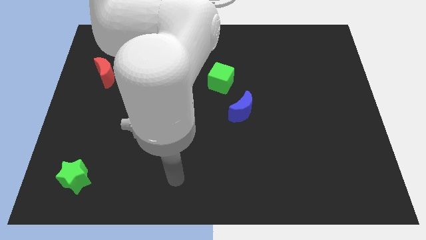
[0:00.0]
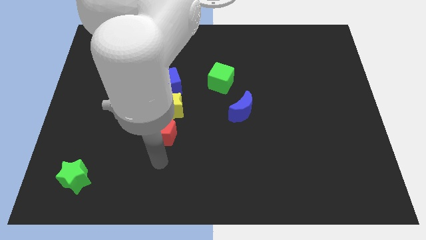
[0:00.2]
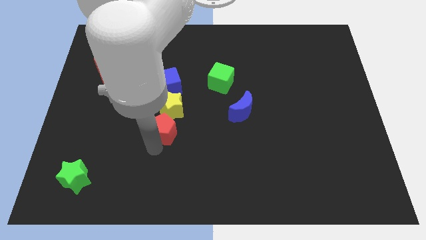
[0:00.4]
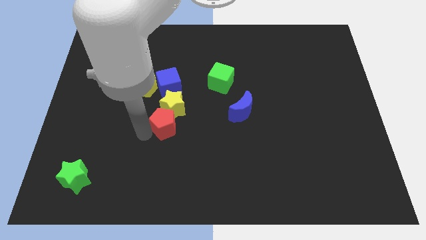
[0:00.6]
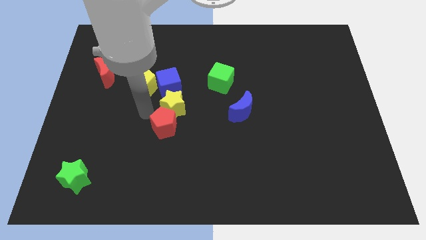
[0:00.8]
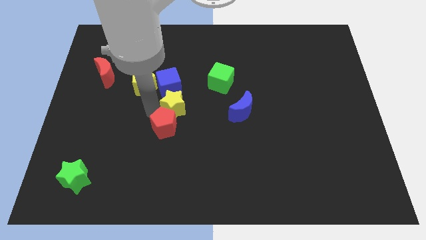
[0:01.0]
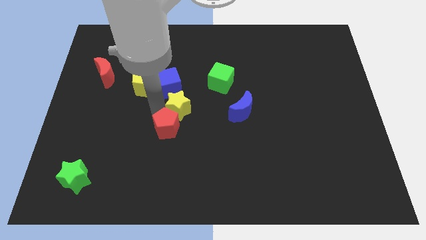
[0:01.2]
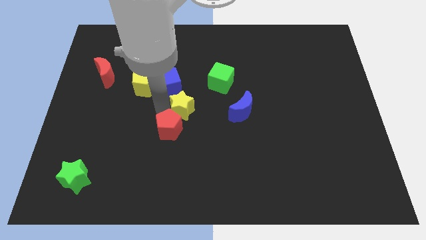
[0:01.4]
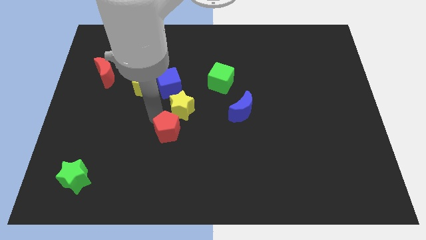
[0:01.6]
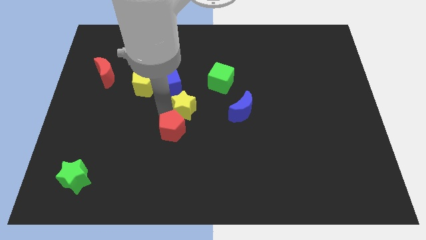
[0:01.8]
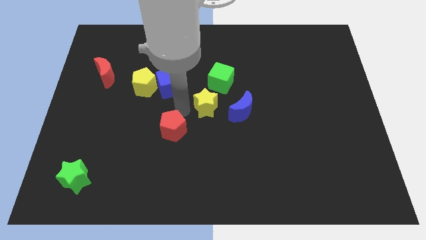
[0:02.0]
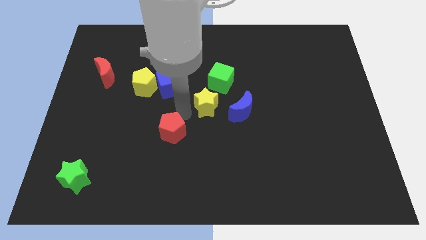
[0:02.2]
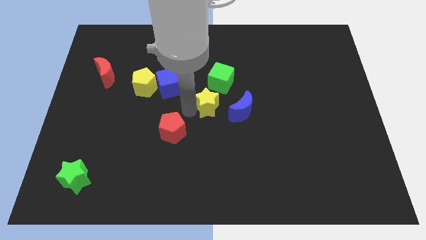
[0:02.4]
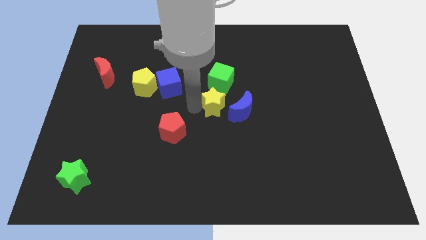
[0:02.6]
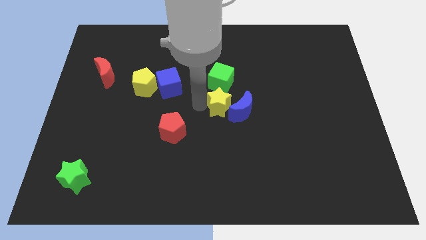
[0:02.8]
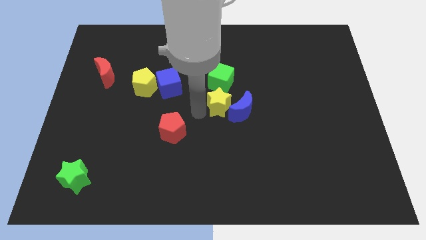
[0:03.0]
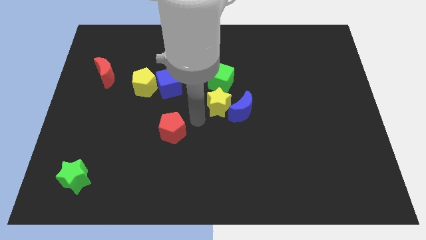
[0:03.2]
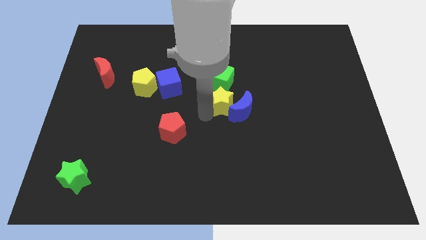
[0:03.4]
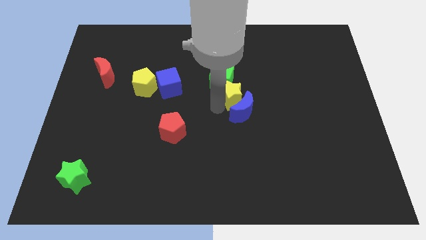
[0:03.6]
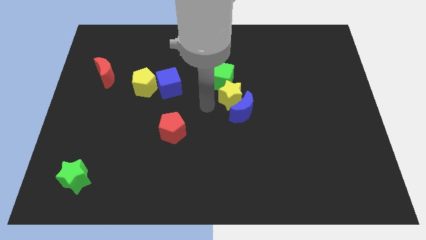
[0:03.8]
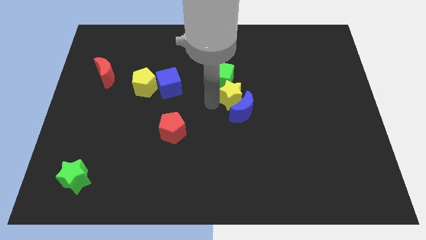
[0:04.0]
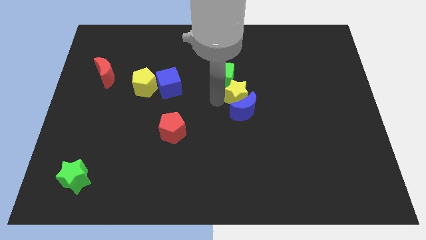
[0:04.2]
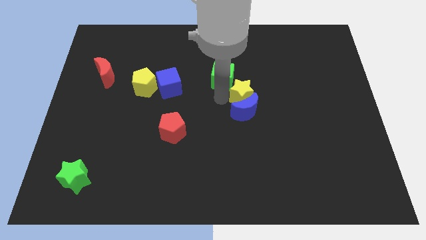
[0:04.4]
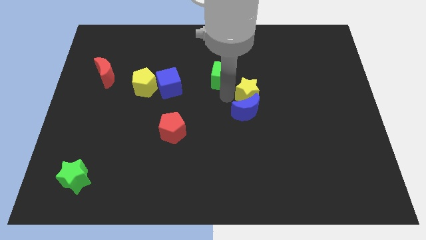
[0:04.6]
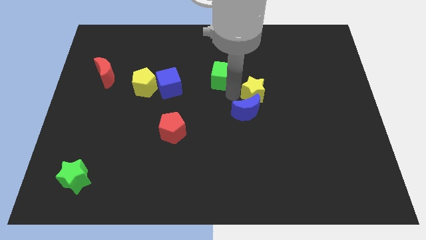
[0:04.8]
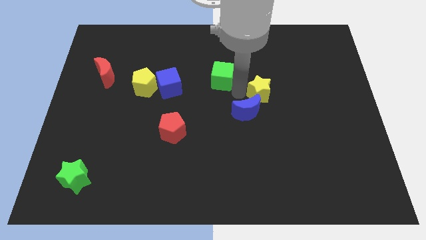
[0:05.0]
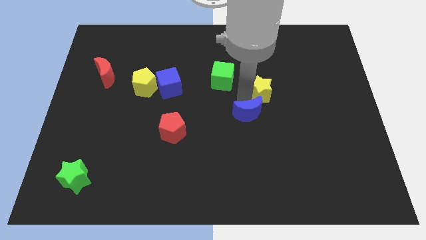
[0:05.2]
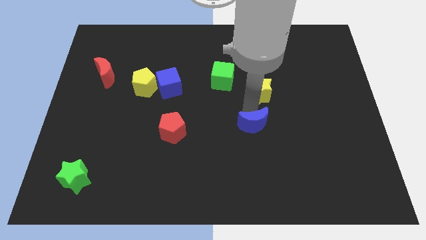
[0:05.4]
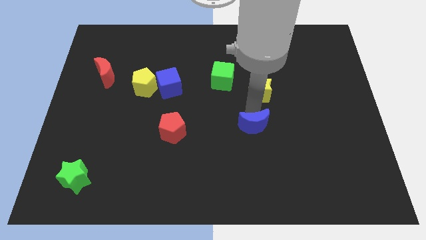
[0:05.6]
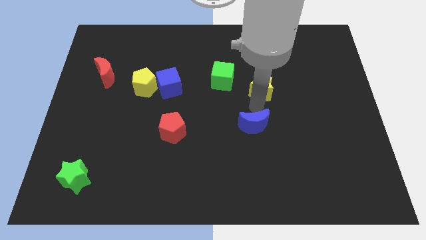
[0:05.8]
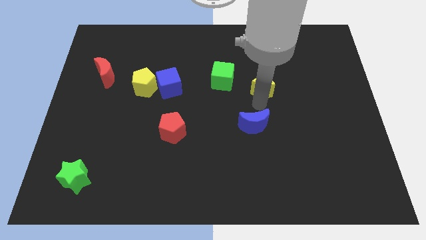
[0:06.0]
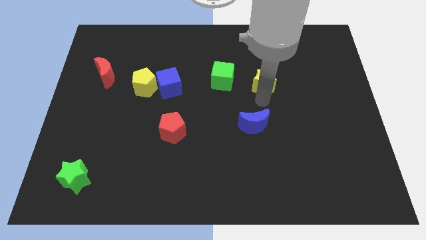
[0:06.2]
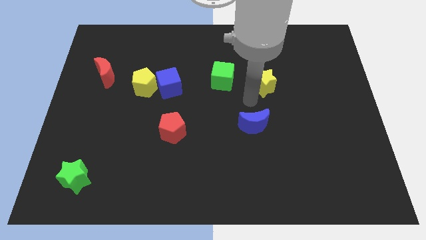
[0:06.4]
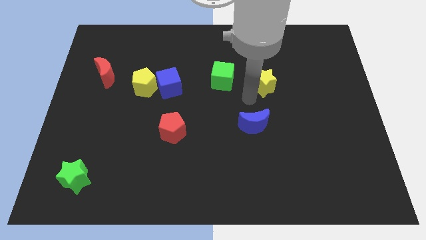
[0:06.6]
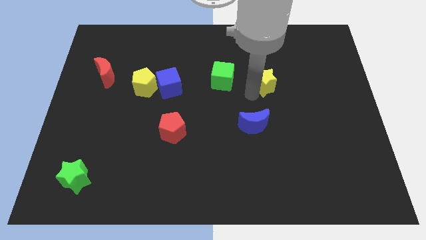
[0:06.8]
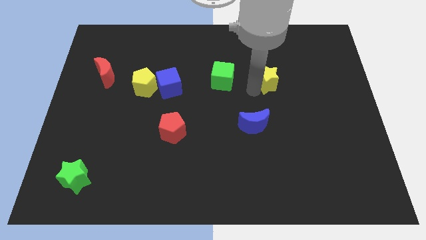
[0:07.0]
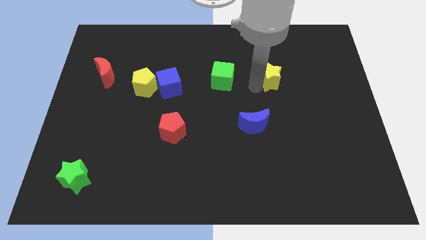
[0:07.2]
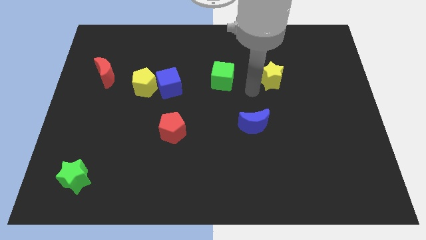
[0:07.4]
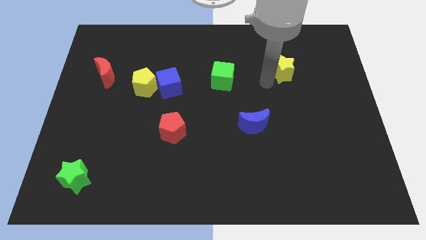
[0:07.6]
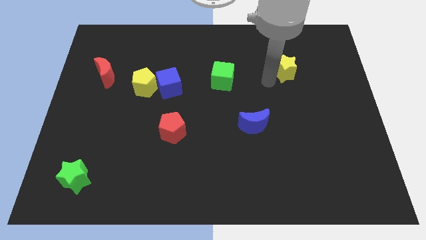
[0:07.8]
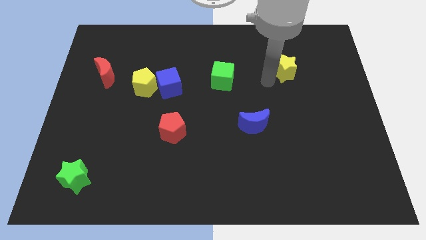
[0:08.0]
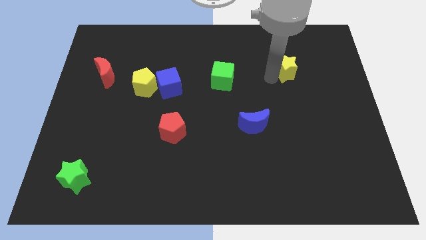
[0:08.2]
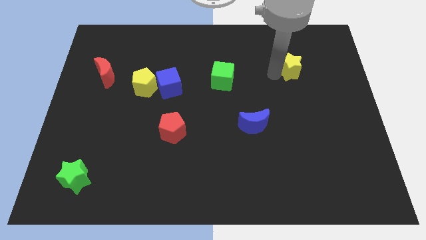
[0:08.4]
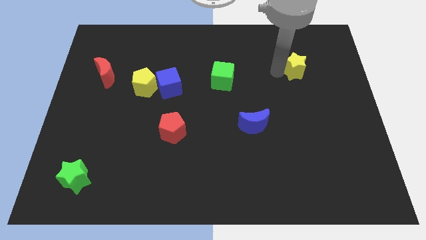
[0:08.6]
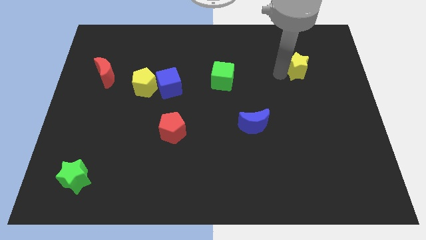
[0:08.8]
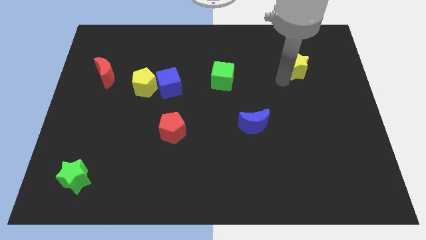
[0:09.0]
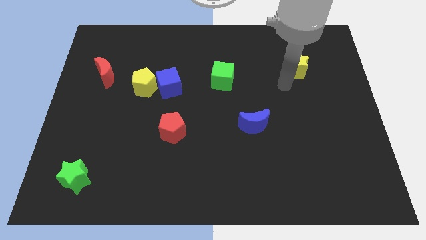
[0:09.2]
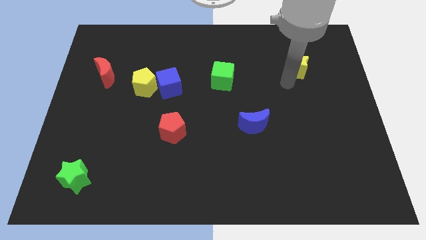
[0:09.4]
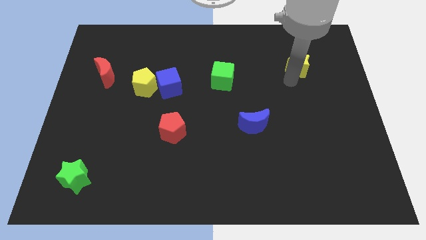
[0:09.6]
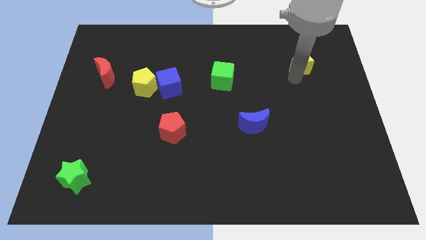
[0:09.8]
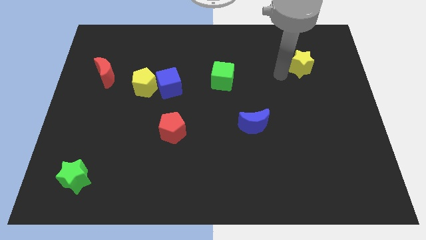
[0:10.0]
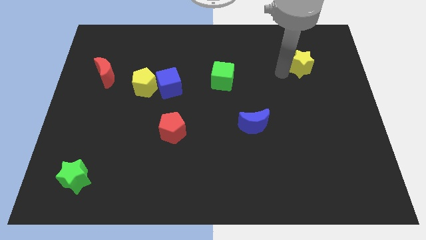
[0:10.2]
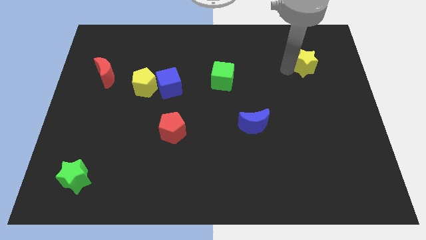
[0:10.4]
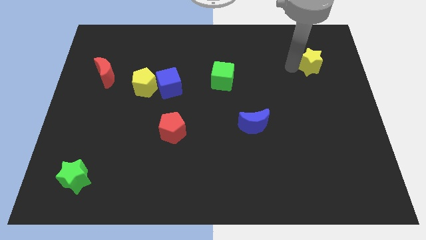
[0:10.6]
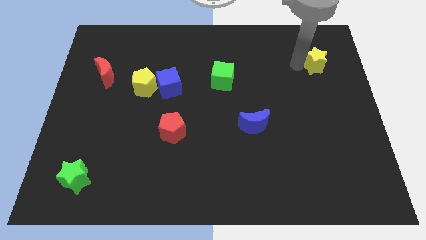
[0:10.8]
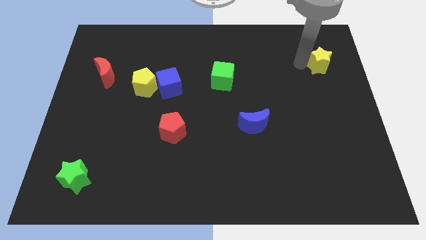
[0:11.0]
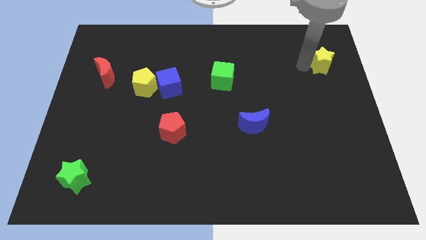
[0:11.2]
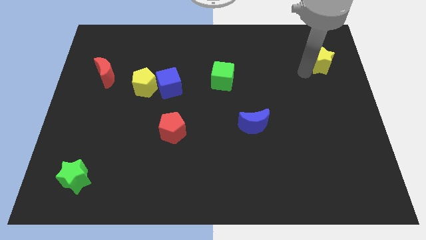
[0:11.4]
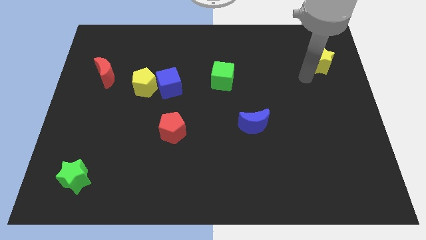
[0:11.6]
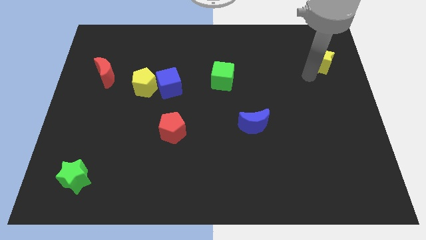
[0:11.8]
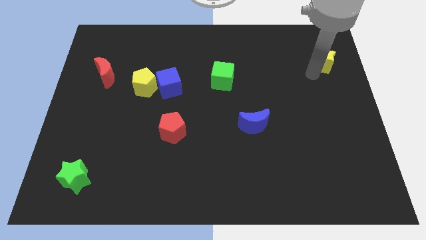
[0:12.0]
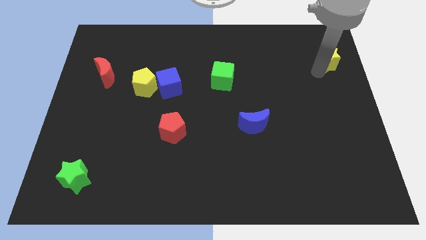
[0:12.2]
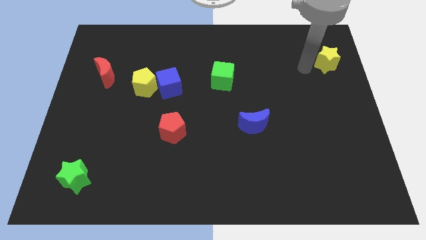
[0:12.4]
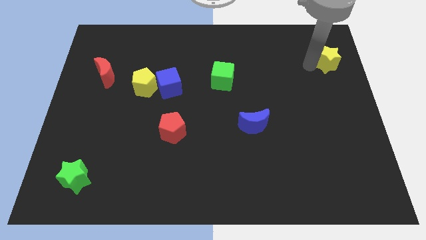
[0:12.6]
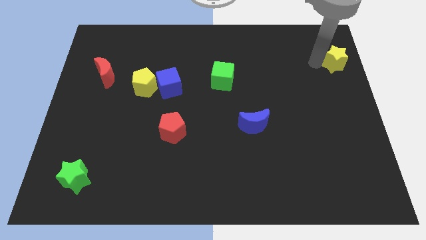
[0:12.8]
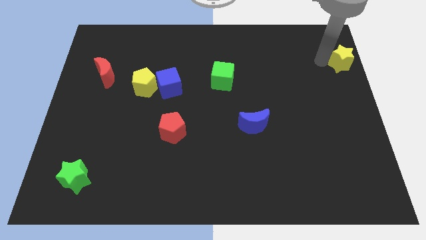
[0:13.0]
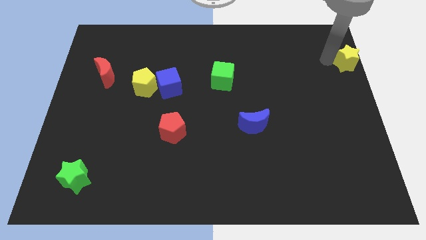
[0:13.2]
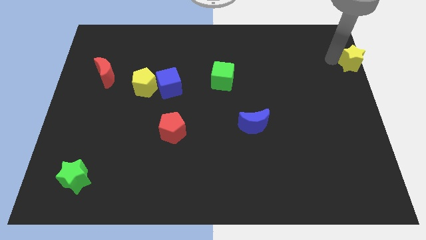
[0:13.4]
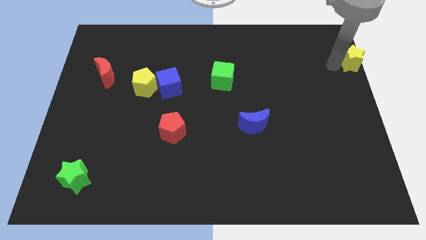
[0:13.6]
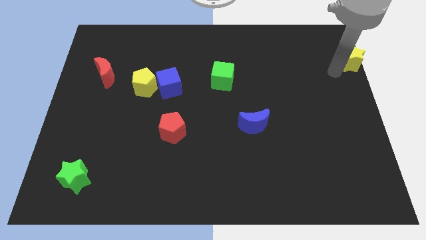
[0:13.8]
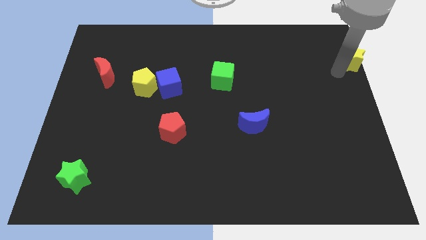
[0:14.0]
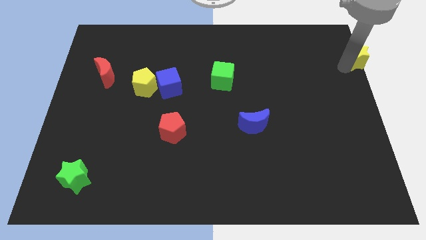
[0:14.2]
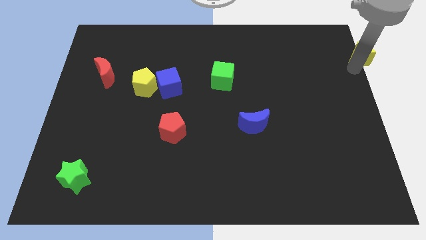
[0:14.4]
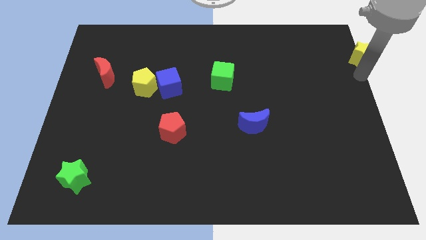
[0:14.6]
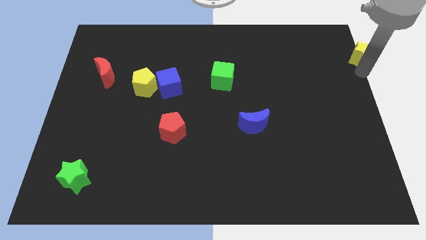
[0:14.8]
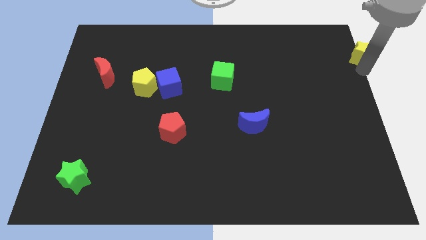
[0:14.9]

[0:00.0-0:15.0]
put the yellow star to the top right corner
